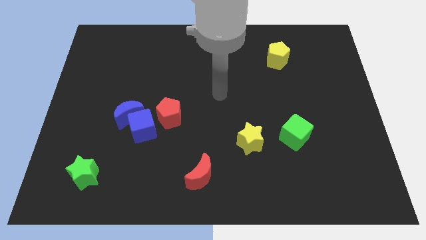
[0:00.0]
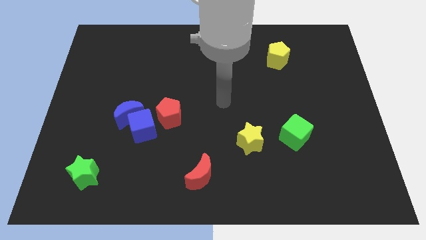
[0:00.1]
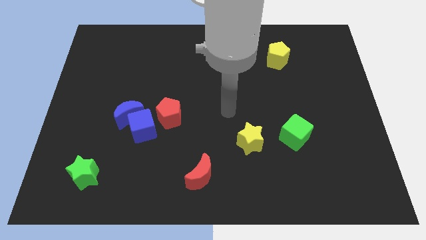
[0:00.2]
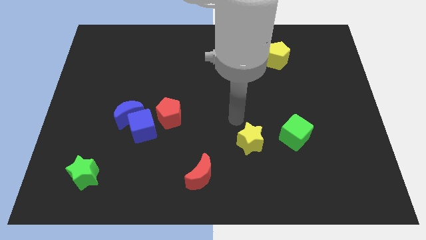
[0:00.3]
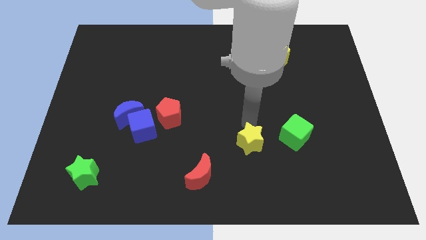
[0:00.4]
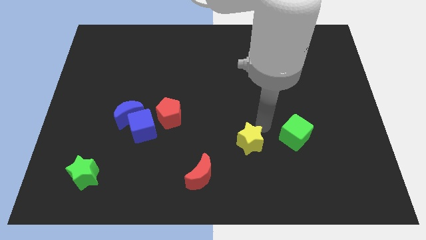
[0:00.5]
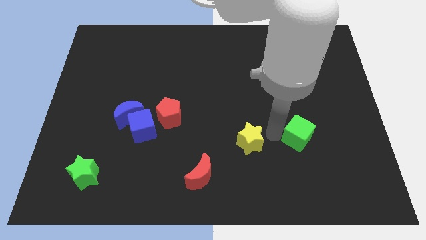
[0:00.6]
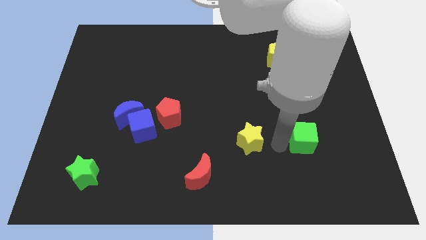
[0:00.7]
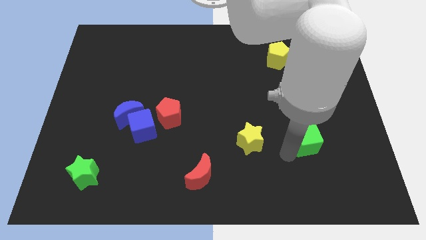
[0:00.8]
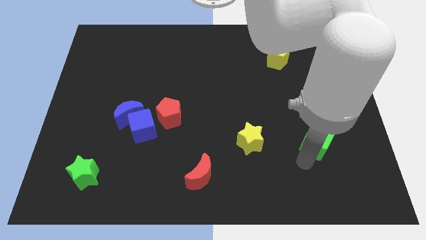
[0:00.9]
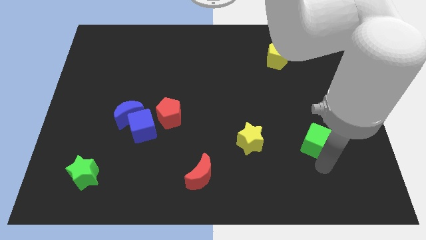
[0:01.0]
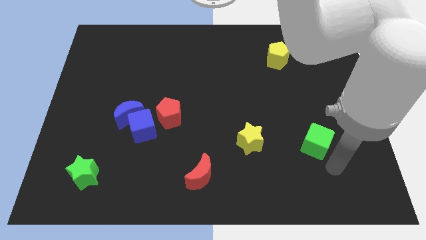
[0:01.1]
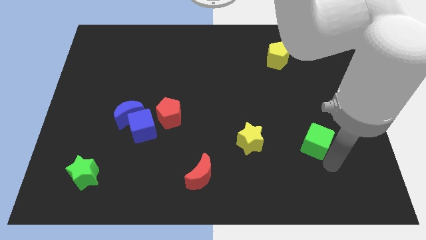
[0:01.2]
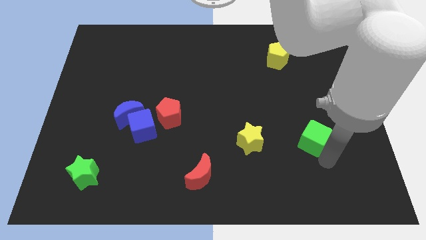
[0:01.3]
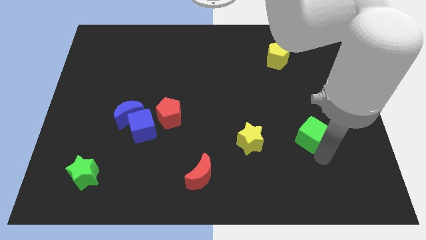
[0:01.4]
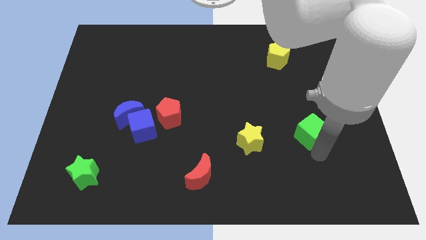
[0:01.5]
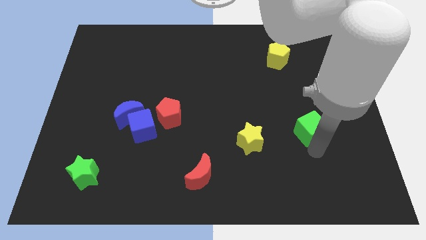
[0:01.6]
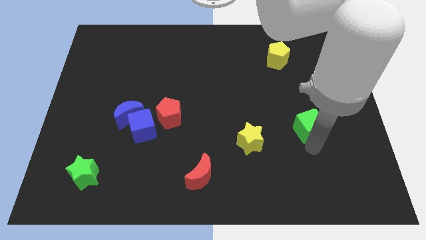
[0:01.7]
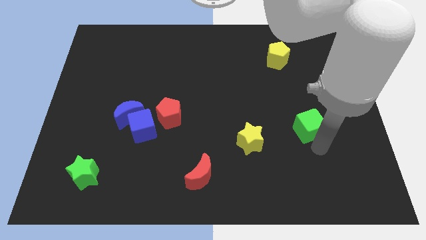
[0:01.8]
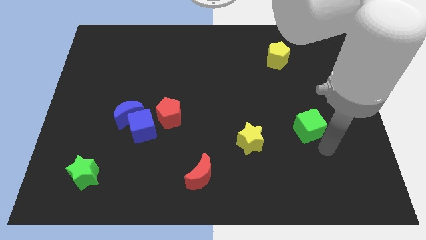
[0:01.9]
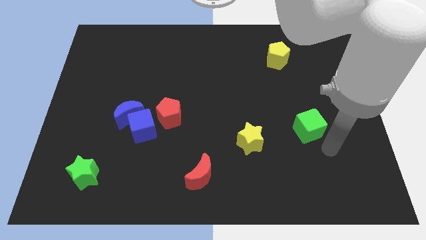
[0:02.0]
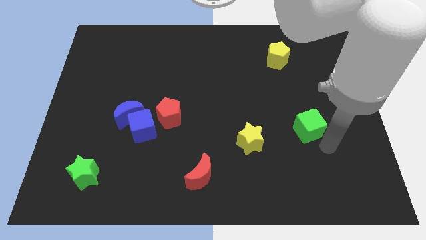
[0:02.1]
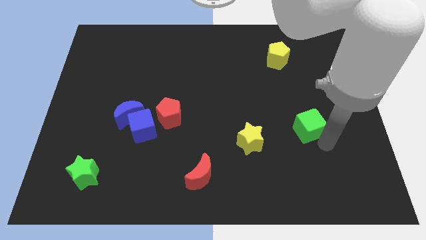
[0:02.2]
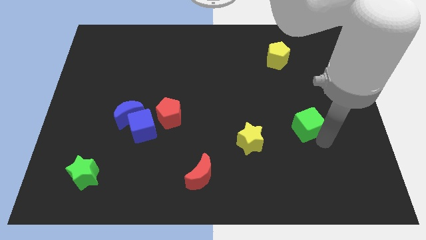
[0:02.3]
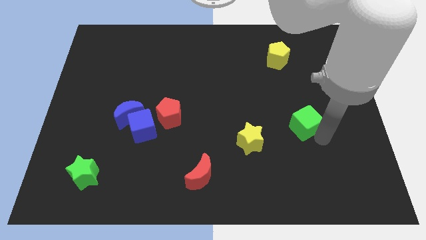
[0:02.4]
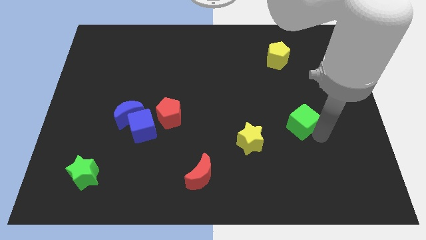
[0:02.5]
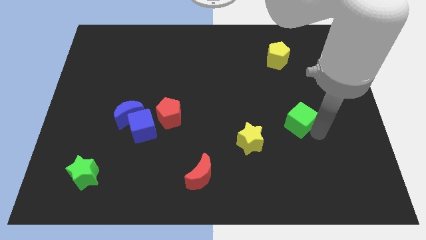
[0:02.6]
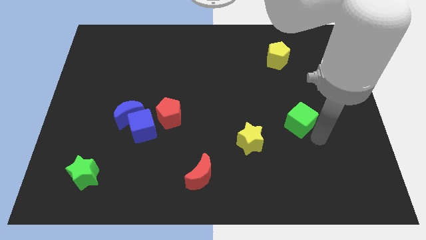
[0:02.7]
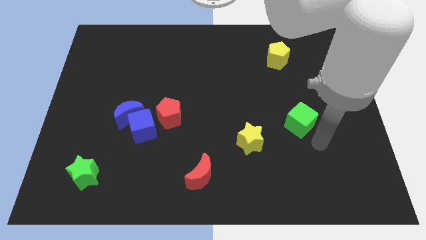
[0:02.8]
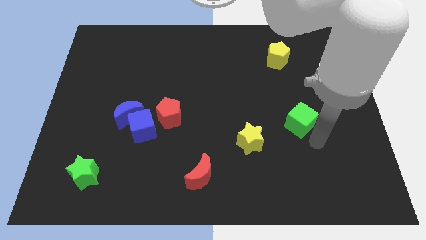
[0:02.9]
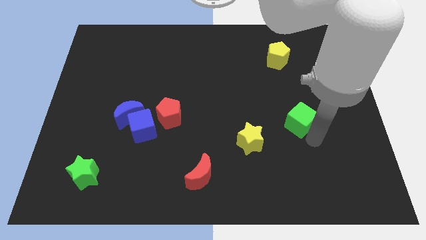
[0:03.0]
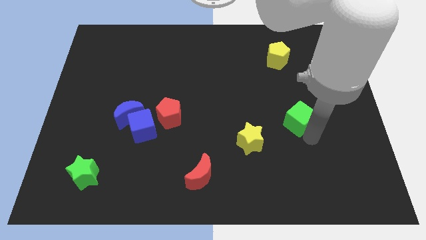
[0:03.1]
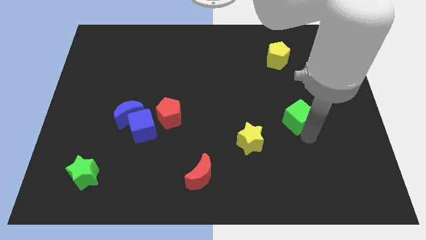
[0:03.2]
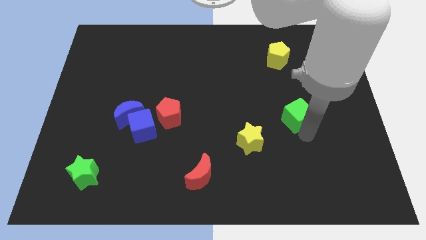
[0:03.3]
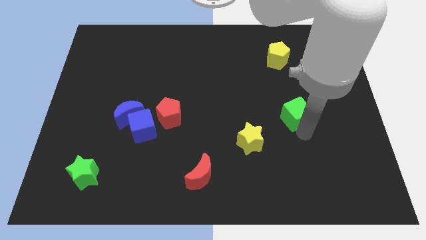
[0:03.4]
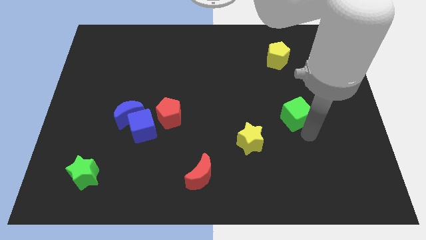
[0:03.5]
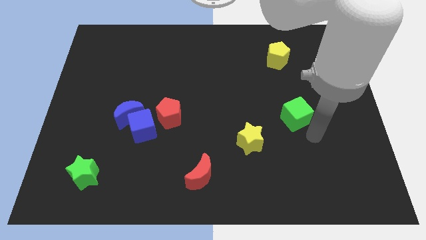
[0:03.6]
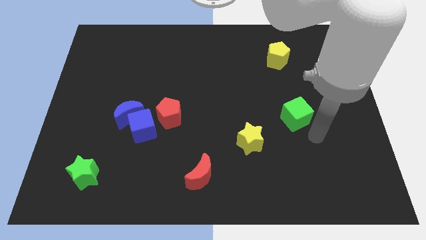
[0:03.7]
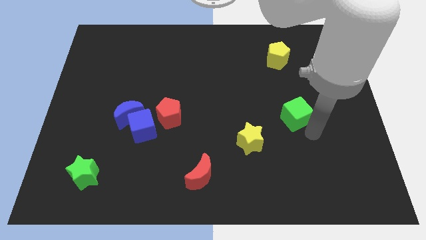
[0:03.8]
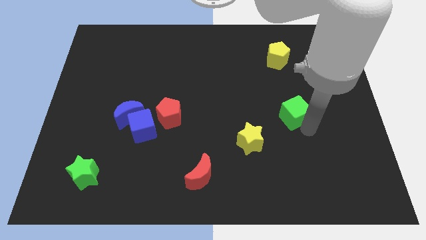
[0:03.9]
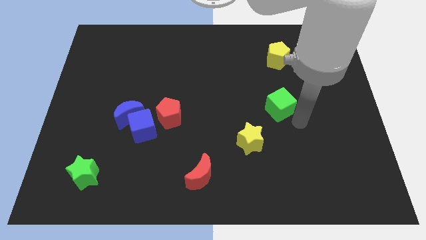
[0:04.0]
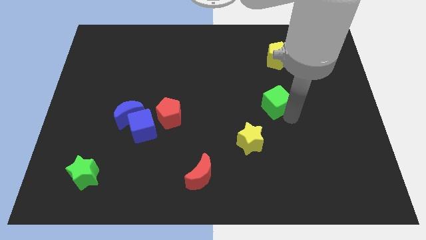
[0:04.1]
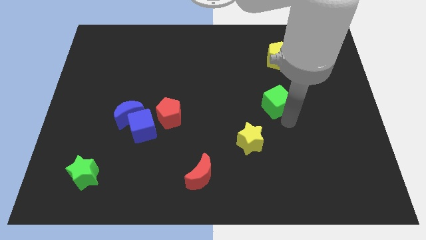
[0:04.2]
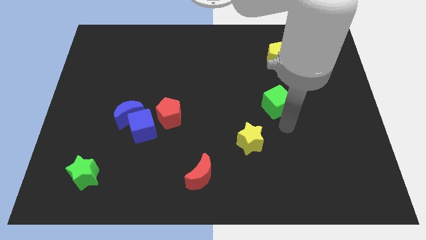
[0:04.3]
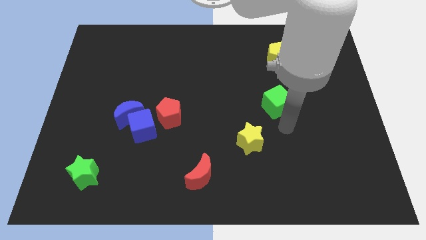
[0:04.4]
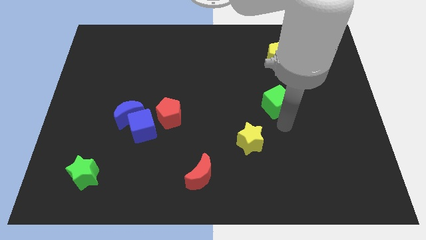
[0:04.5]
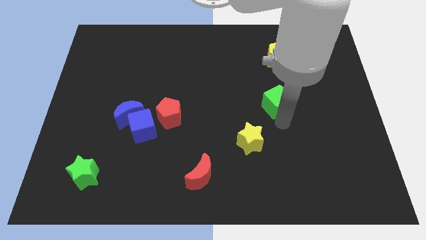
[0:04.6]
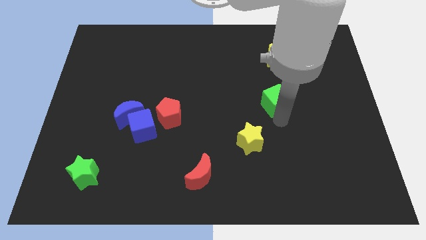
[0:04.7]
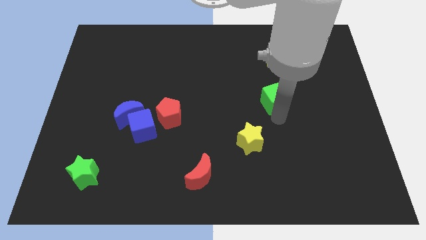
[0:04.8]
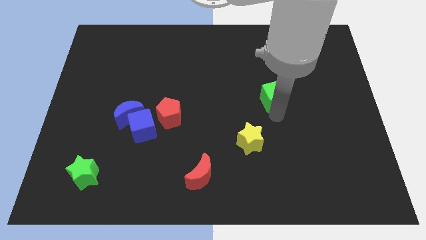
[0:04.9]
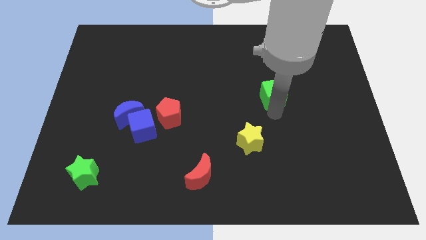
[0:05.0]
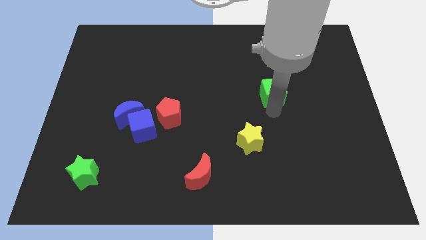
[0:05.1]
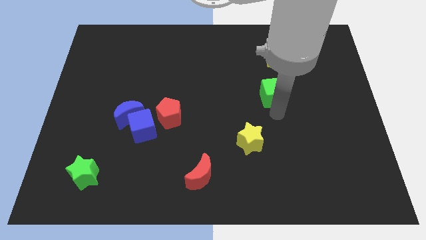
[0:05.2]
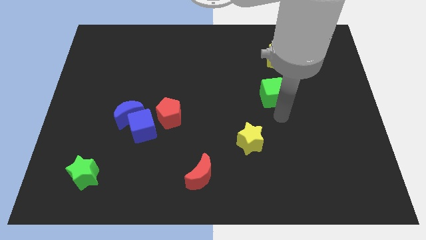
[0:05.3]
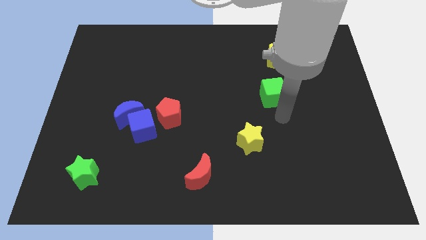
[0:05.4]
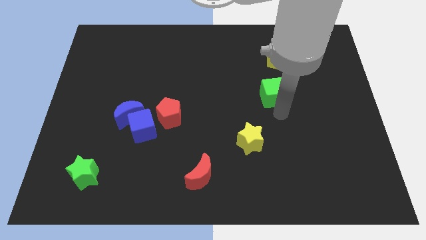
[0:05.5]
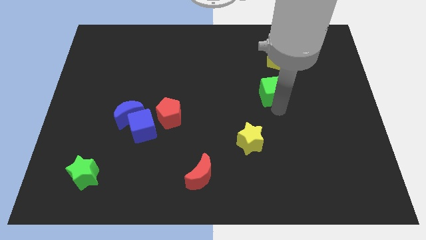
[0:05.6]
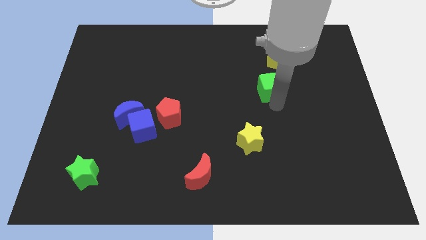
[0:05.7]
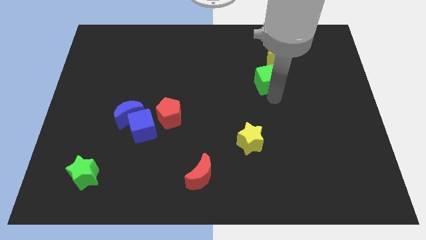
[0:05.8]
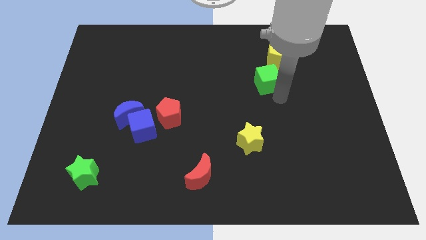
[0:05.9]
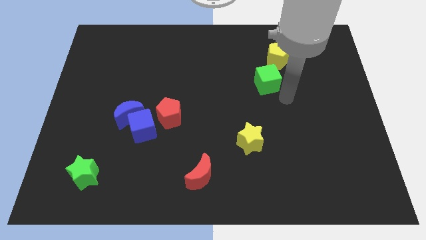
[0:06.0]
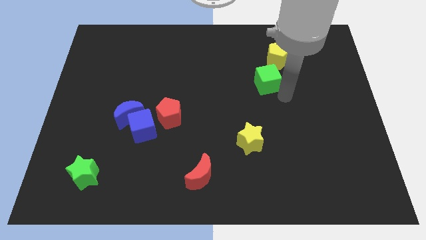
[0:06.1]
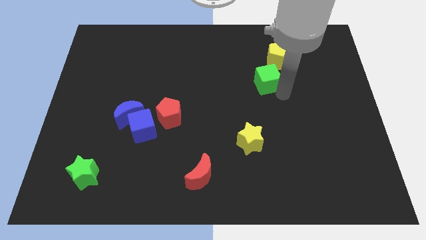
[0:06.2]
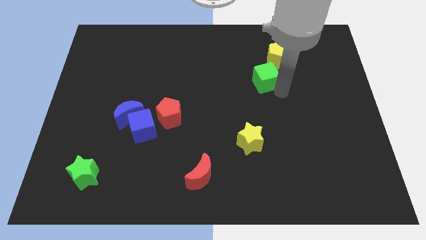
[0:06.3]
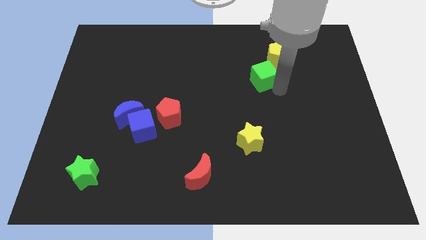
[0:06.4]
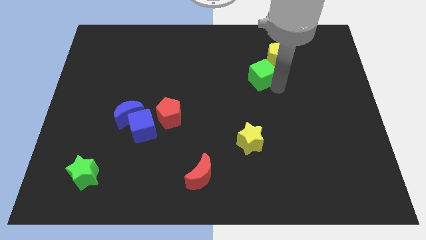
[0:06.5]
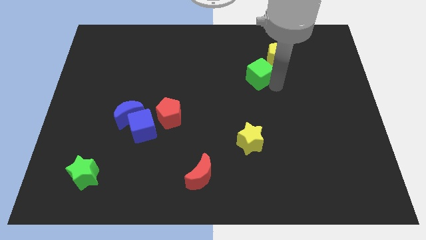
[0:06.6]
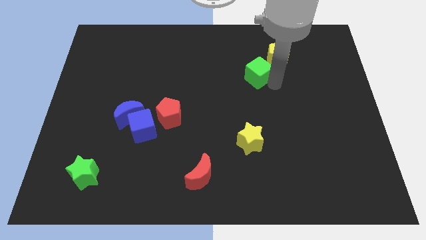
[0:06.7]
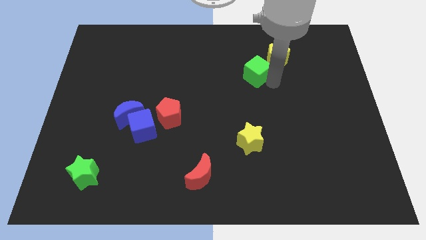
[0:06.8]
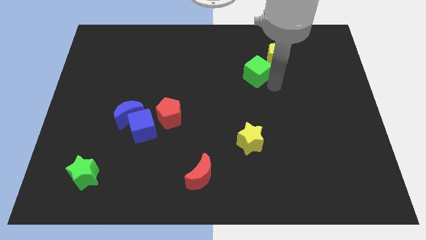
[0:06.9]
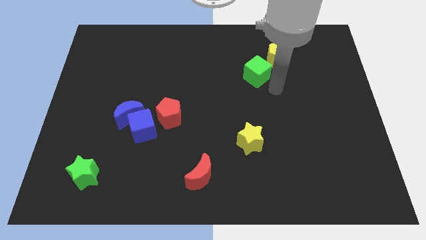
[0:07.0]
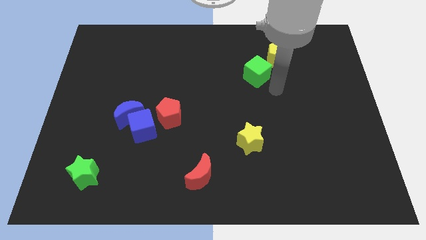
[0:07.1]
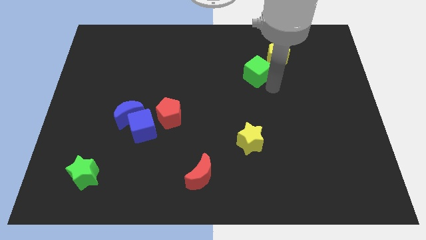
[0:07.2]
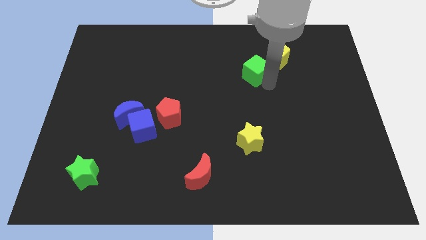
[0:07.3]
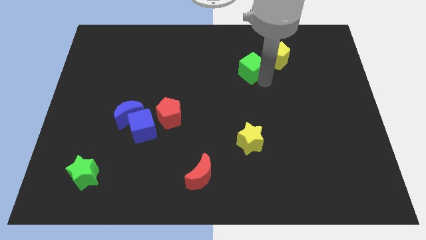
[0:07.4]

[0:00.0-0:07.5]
put the green cube to the left side of the yellow pentagon
